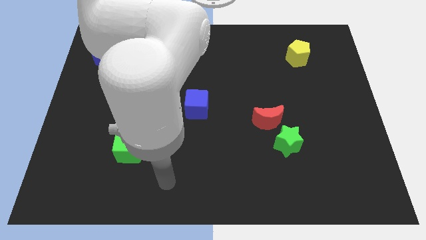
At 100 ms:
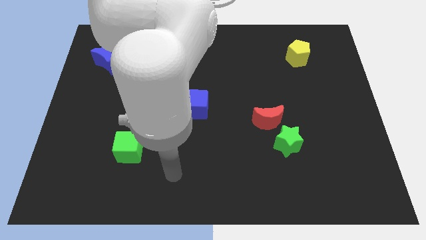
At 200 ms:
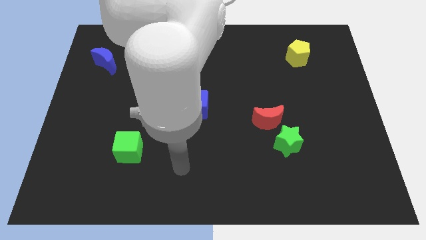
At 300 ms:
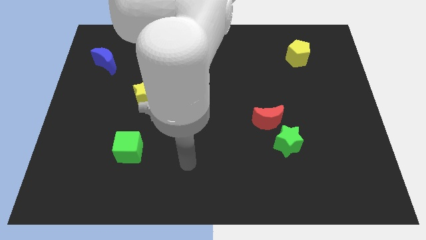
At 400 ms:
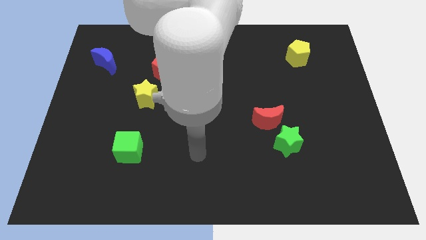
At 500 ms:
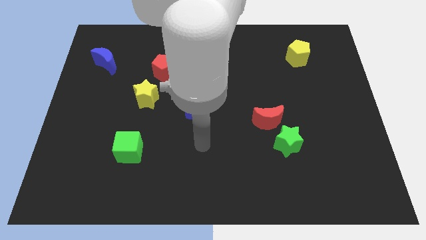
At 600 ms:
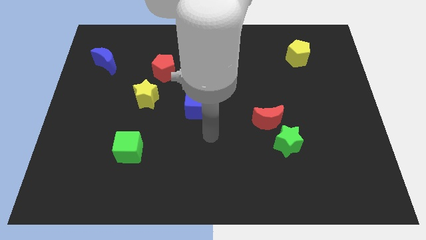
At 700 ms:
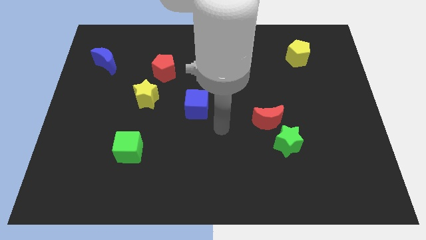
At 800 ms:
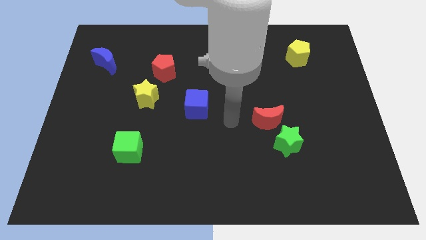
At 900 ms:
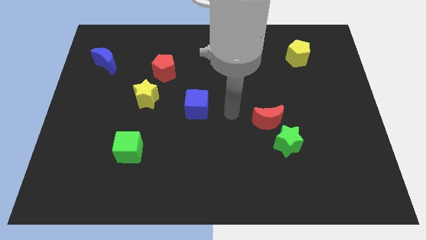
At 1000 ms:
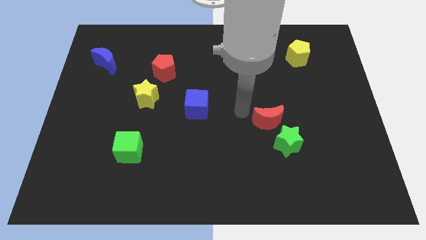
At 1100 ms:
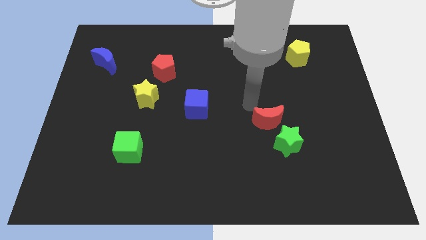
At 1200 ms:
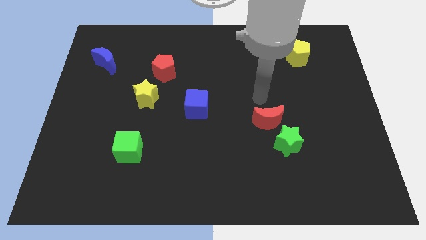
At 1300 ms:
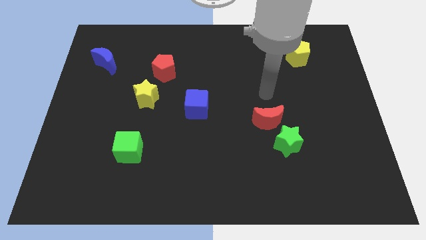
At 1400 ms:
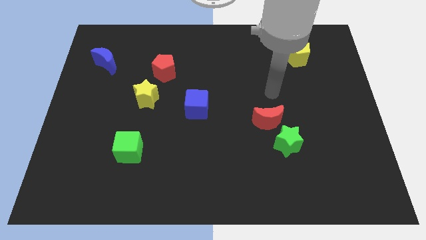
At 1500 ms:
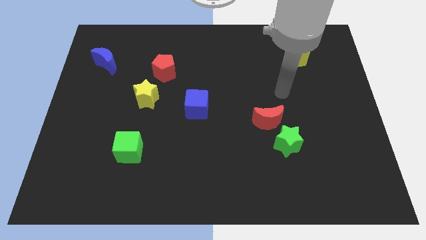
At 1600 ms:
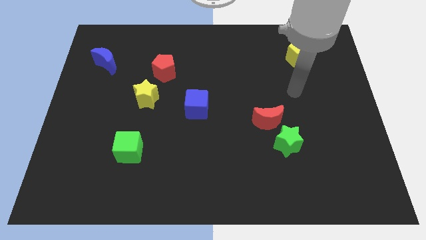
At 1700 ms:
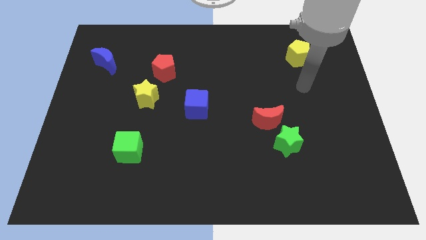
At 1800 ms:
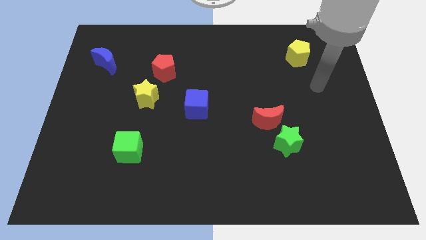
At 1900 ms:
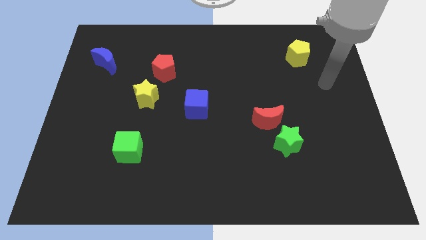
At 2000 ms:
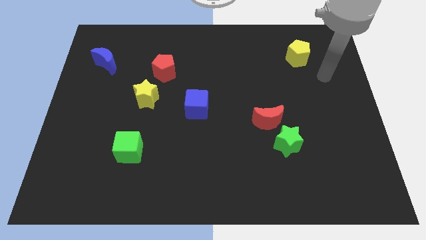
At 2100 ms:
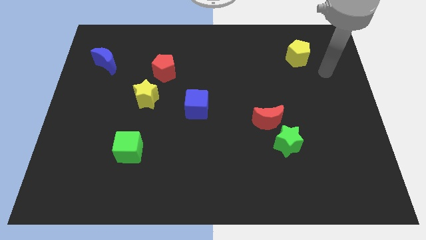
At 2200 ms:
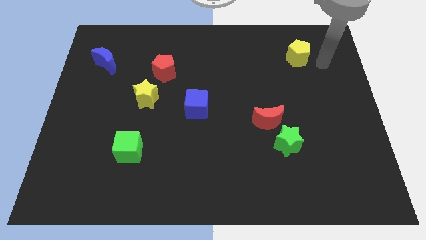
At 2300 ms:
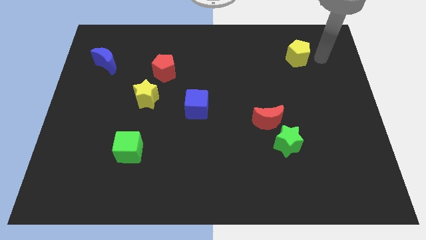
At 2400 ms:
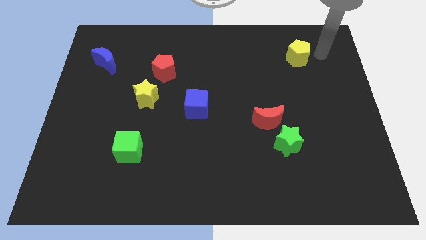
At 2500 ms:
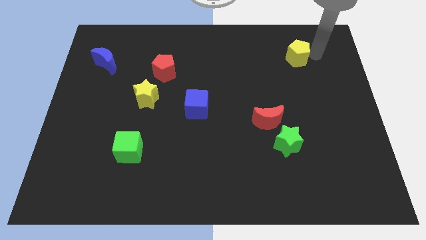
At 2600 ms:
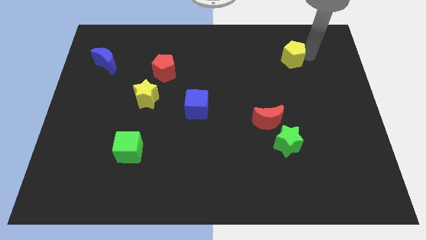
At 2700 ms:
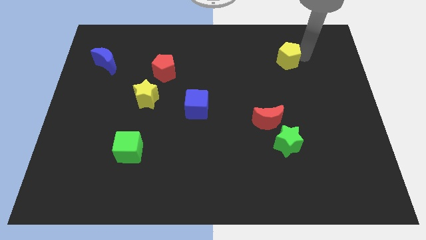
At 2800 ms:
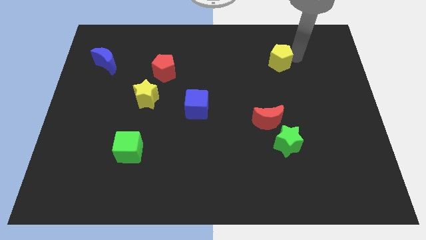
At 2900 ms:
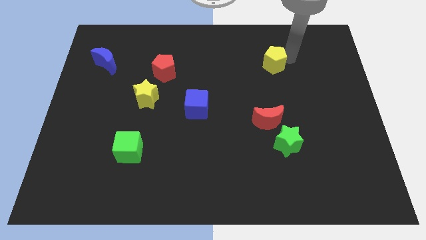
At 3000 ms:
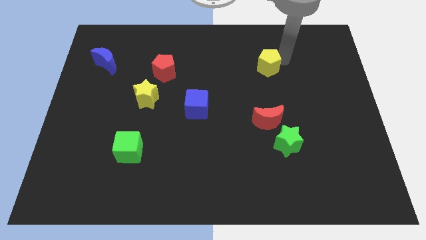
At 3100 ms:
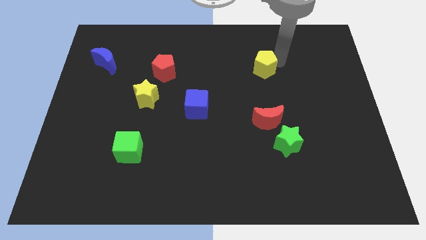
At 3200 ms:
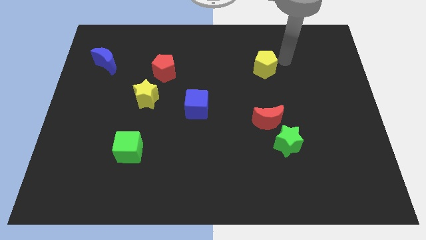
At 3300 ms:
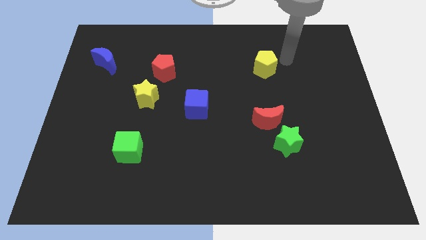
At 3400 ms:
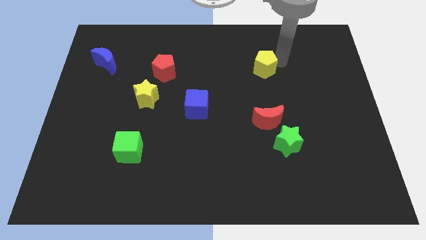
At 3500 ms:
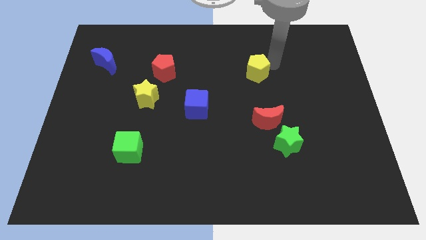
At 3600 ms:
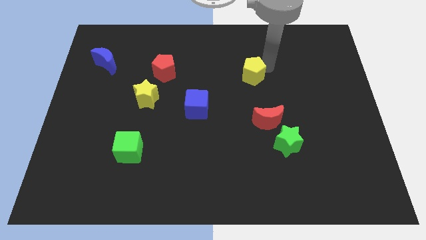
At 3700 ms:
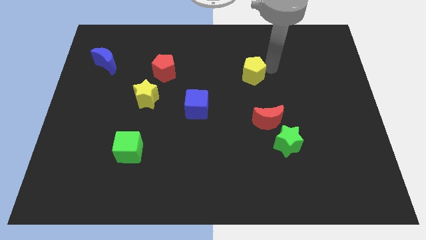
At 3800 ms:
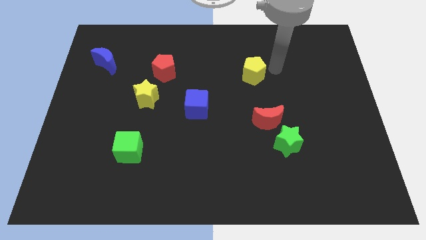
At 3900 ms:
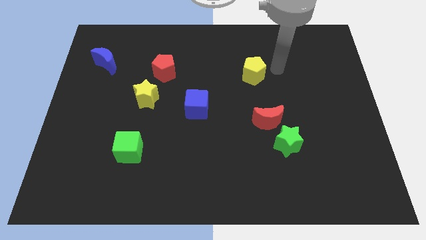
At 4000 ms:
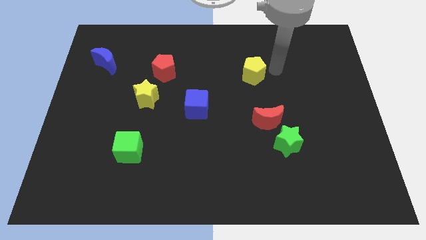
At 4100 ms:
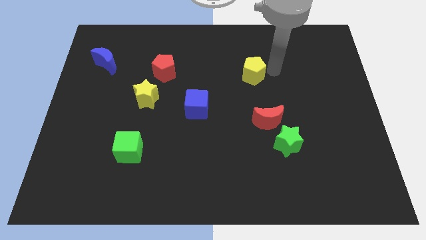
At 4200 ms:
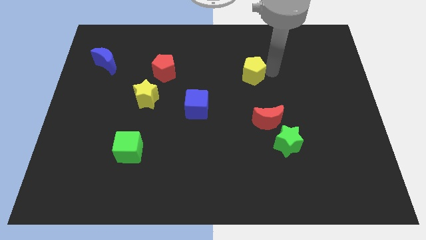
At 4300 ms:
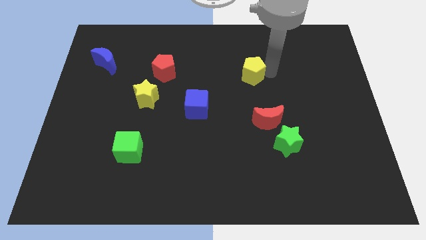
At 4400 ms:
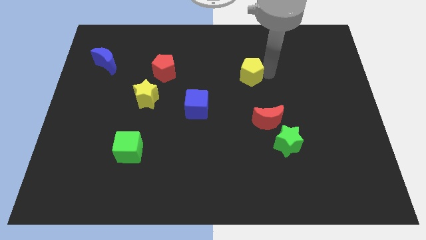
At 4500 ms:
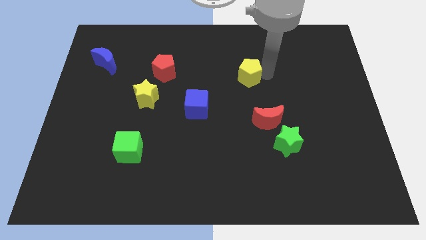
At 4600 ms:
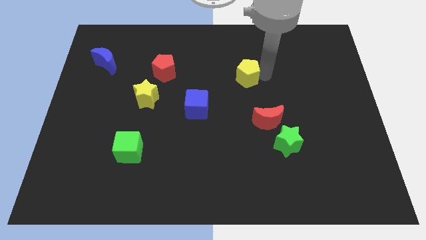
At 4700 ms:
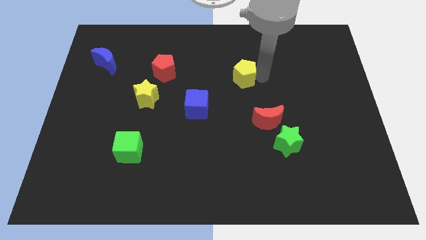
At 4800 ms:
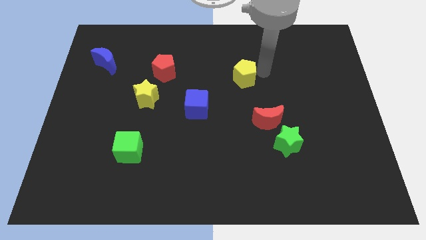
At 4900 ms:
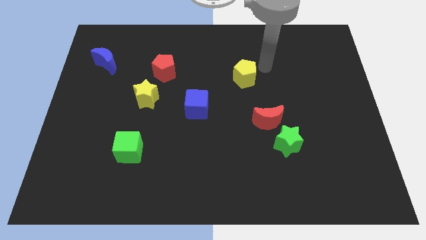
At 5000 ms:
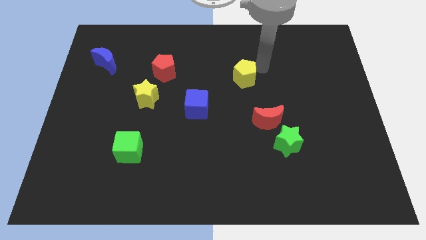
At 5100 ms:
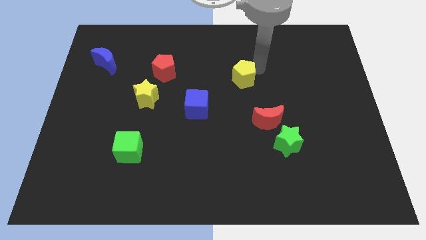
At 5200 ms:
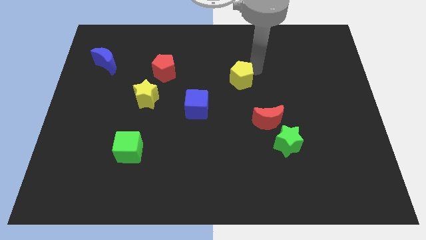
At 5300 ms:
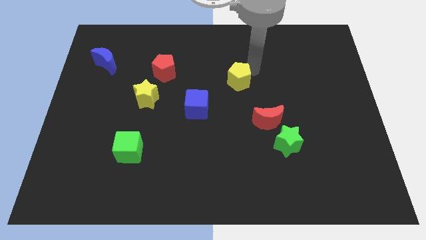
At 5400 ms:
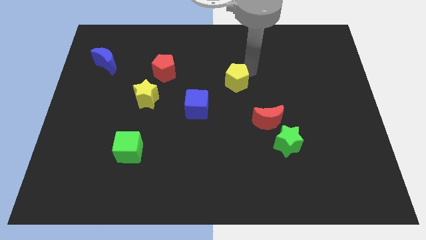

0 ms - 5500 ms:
put the yellow pentagon to the top right of the blue cube

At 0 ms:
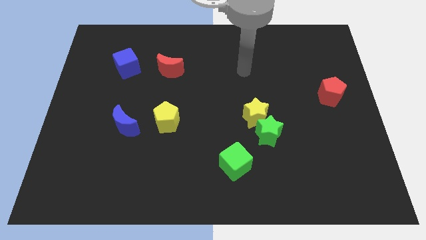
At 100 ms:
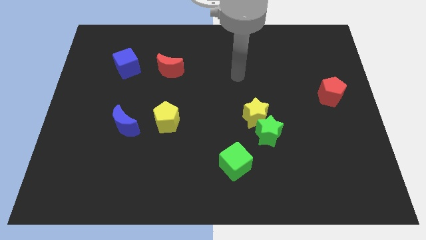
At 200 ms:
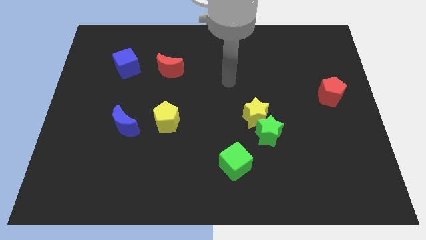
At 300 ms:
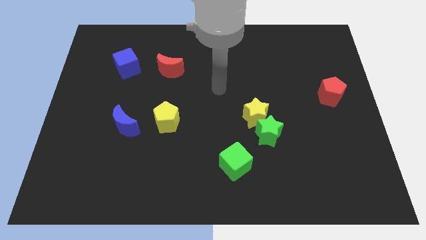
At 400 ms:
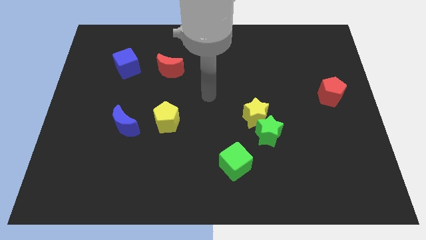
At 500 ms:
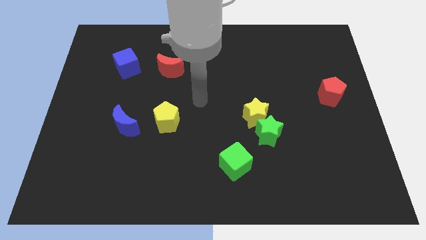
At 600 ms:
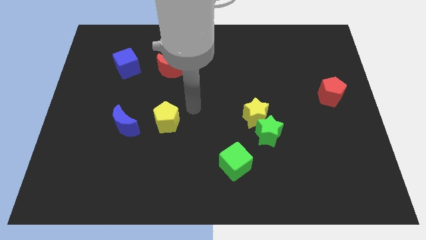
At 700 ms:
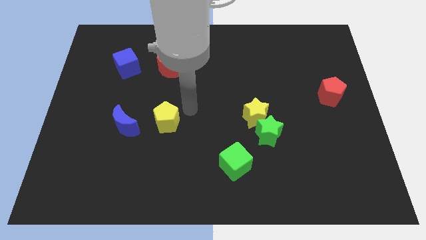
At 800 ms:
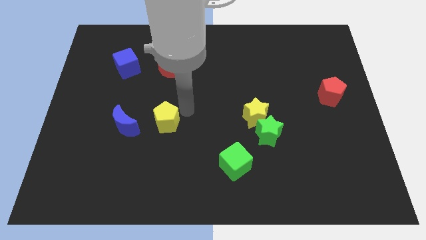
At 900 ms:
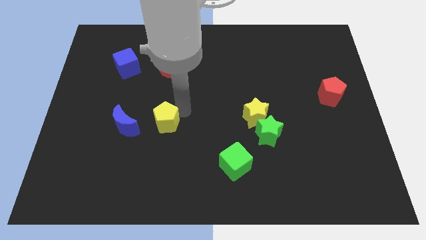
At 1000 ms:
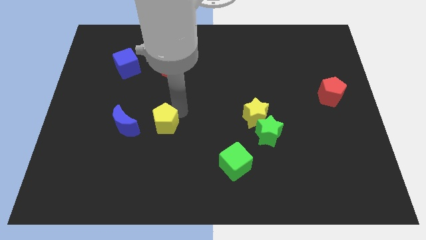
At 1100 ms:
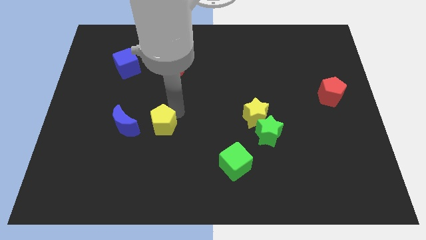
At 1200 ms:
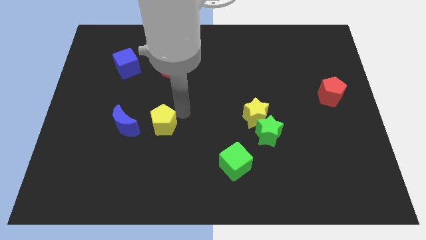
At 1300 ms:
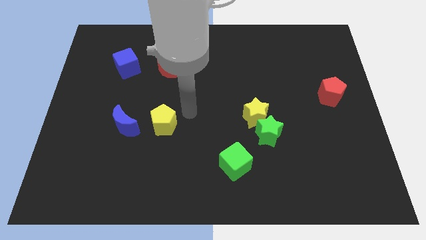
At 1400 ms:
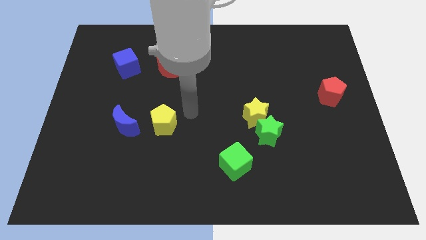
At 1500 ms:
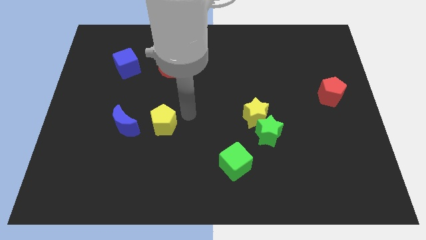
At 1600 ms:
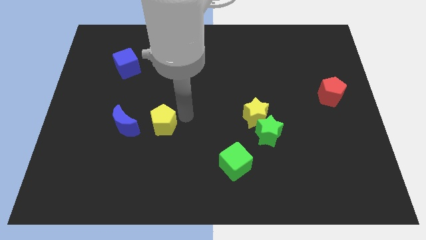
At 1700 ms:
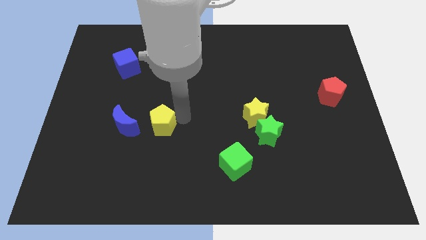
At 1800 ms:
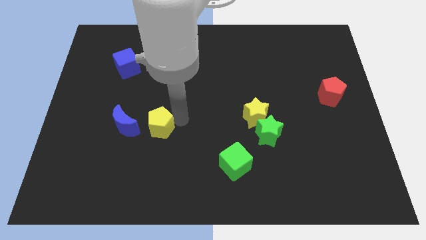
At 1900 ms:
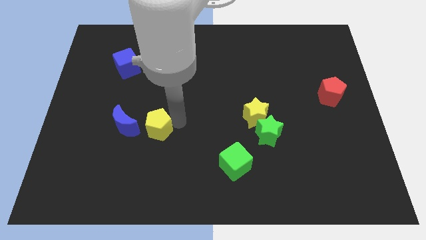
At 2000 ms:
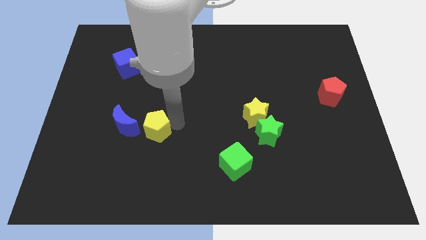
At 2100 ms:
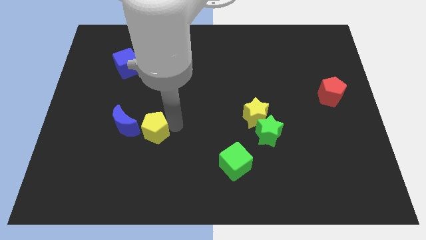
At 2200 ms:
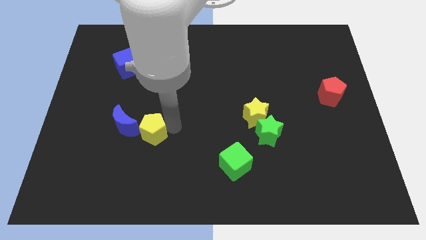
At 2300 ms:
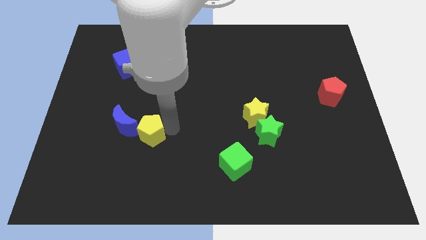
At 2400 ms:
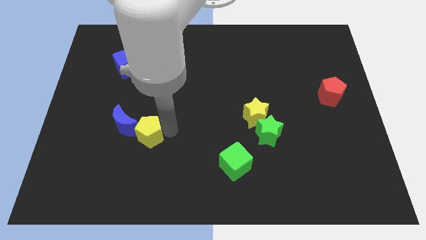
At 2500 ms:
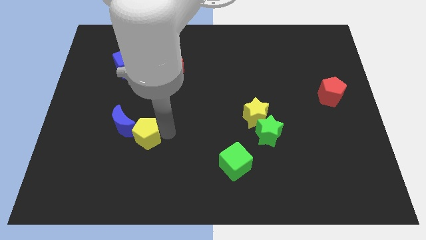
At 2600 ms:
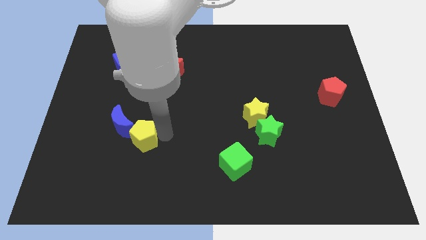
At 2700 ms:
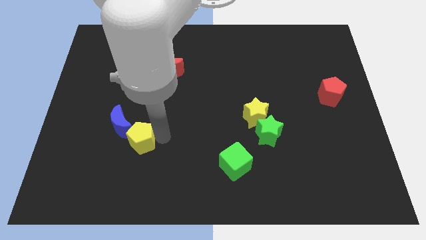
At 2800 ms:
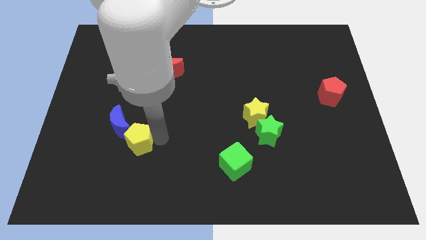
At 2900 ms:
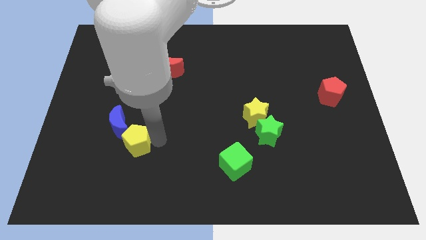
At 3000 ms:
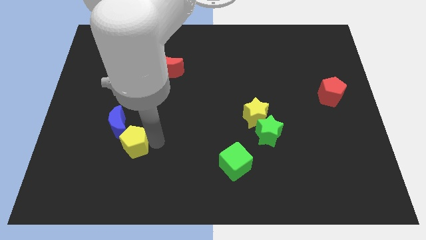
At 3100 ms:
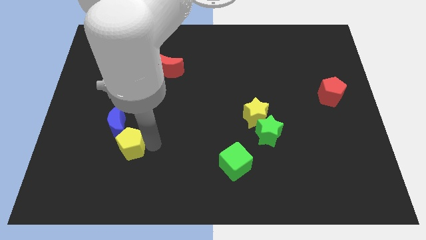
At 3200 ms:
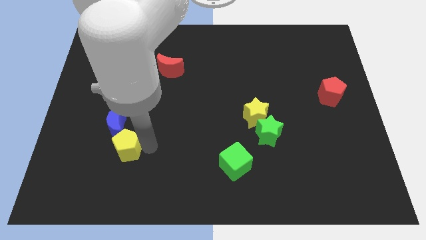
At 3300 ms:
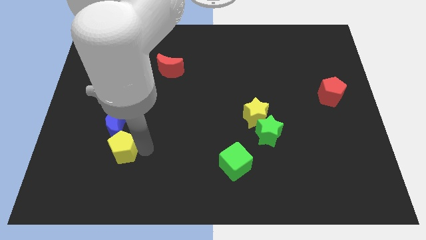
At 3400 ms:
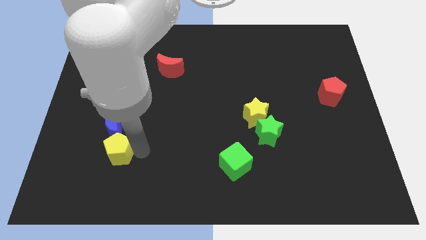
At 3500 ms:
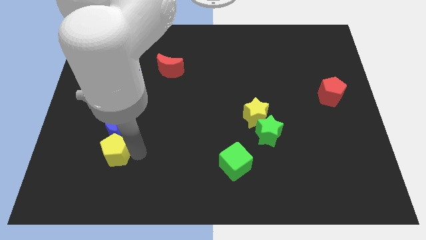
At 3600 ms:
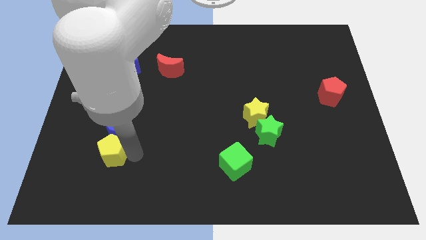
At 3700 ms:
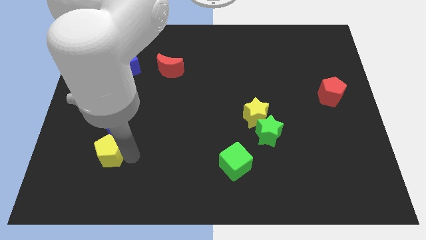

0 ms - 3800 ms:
push the yellow pentagon to the bottom left side of the blue moon
